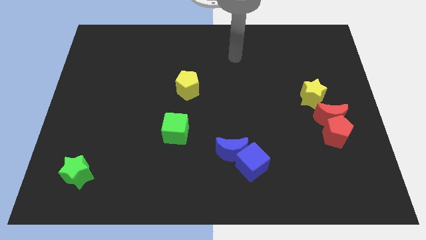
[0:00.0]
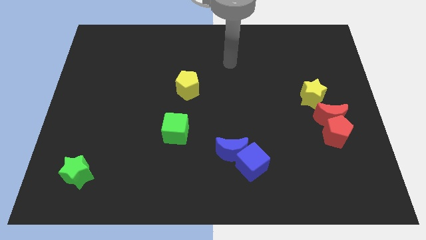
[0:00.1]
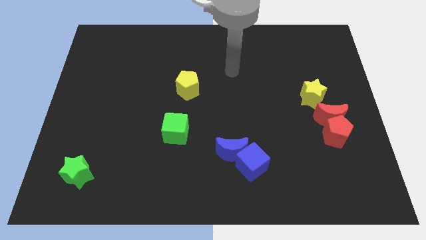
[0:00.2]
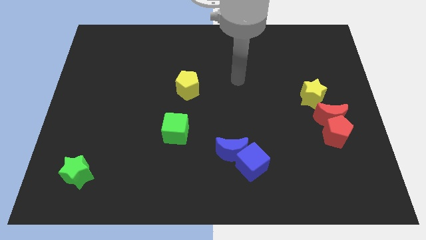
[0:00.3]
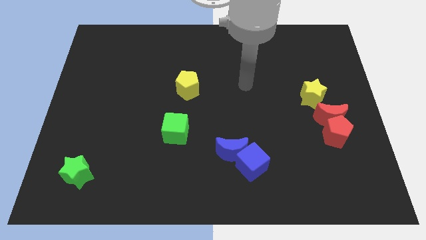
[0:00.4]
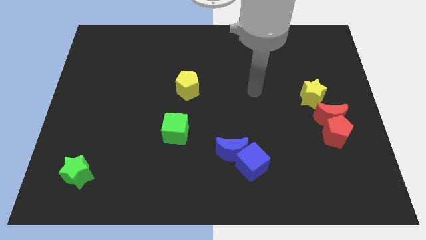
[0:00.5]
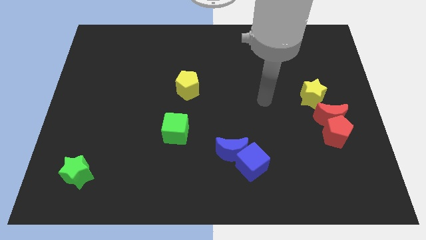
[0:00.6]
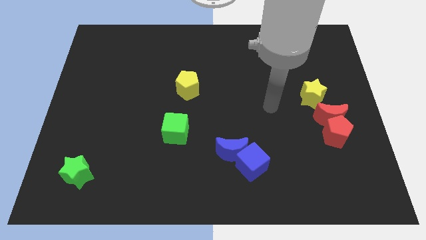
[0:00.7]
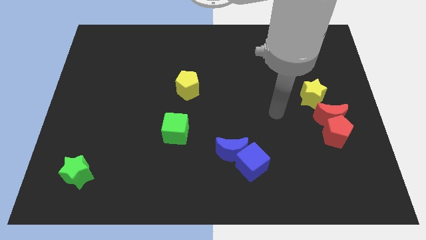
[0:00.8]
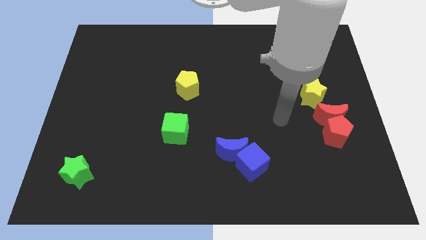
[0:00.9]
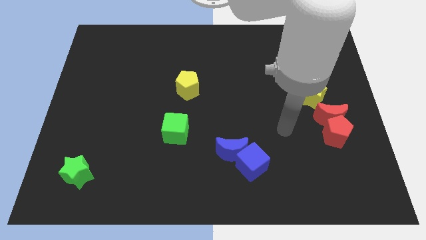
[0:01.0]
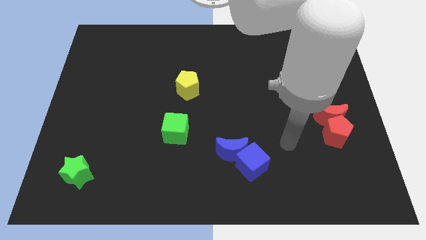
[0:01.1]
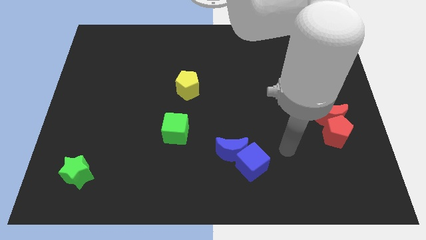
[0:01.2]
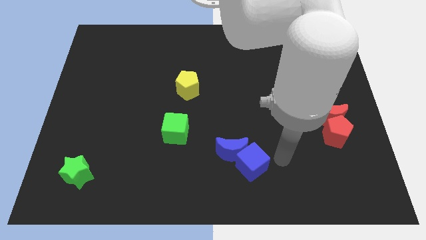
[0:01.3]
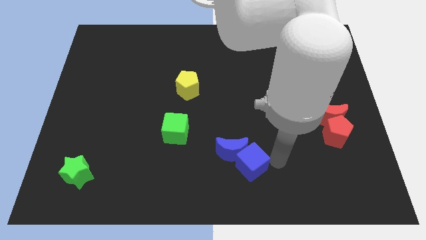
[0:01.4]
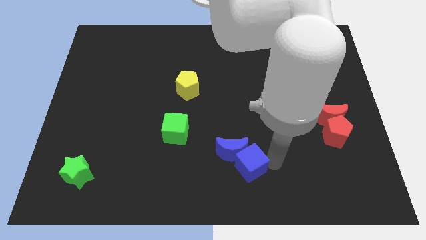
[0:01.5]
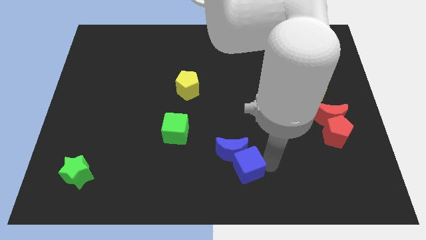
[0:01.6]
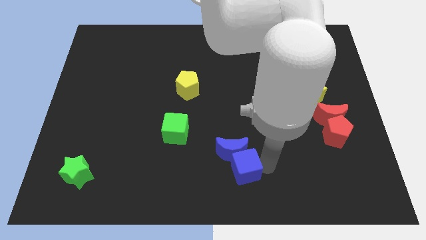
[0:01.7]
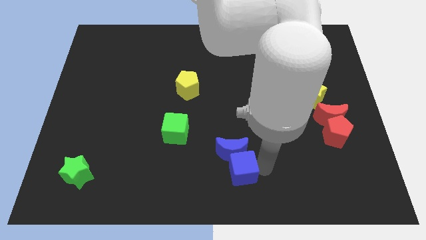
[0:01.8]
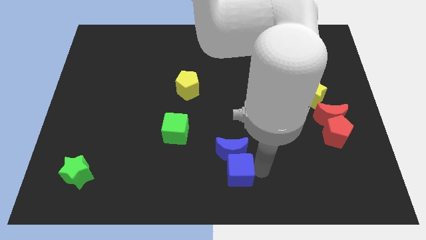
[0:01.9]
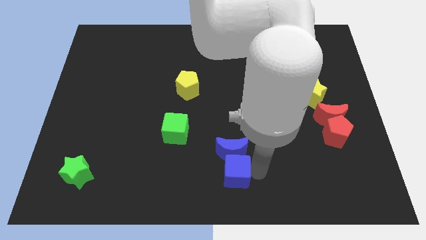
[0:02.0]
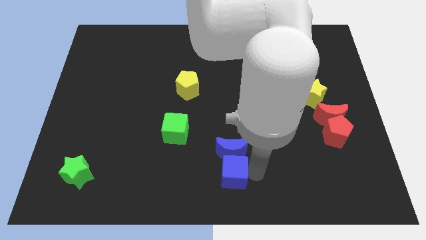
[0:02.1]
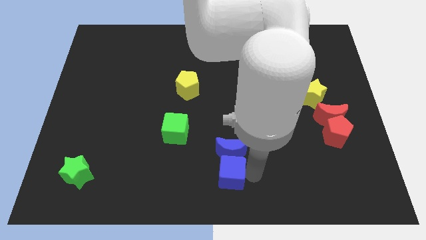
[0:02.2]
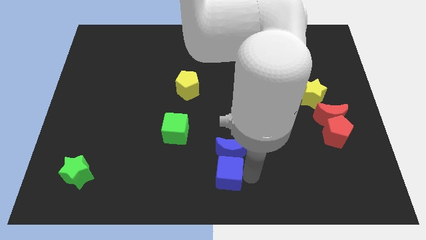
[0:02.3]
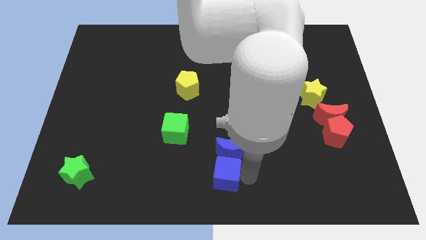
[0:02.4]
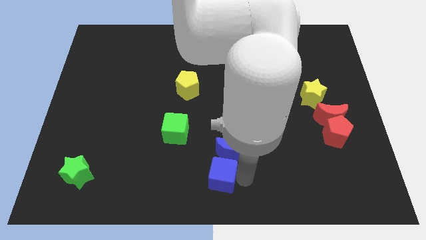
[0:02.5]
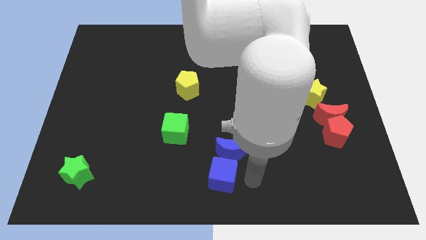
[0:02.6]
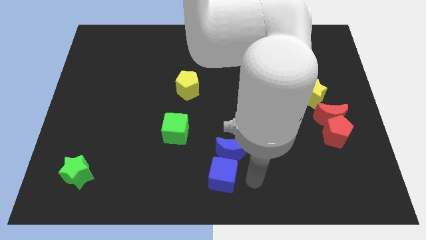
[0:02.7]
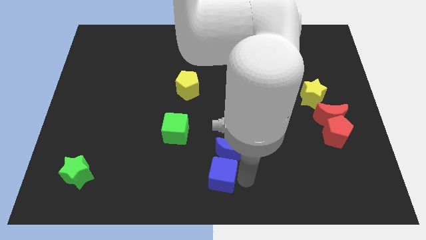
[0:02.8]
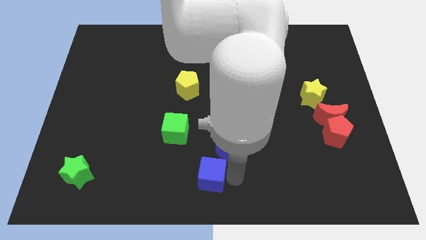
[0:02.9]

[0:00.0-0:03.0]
move the blue cube slightly to the left

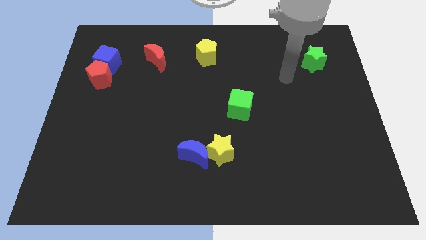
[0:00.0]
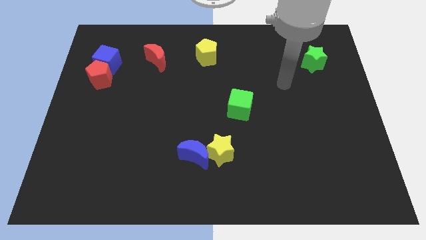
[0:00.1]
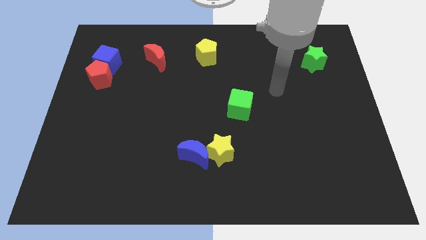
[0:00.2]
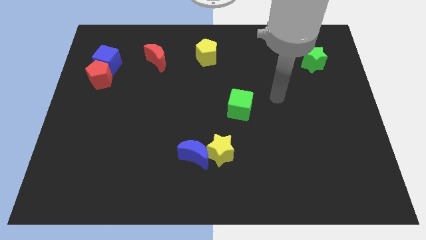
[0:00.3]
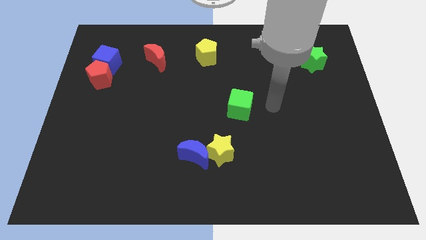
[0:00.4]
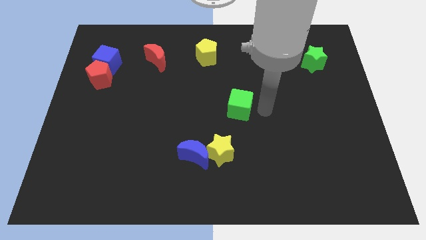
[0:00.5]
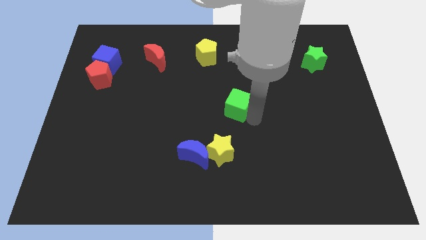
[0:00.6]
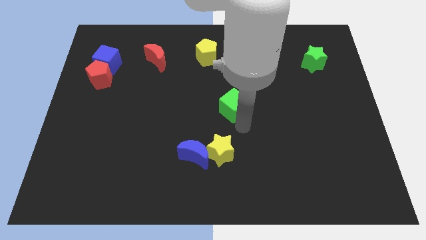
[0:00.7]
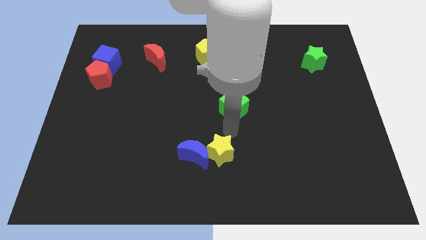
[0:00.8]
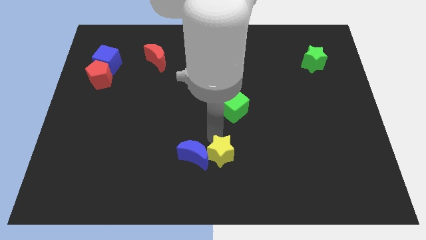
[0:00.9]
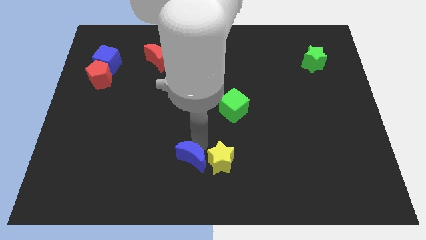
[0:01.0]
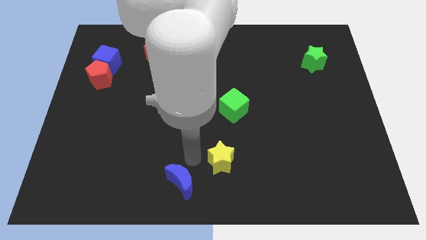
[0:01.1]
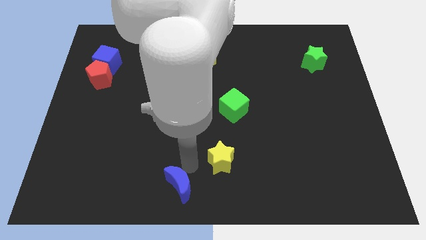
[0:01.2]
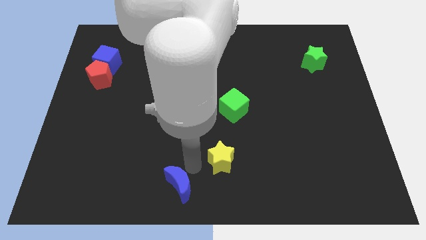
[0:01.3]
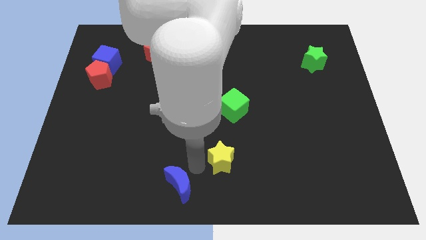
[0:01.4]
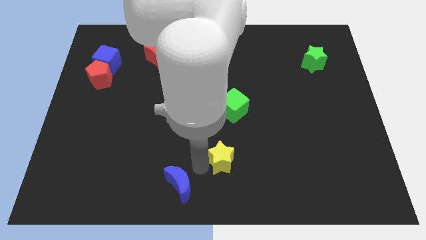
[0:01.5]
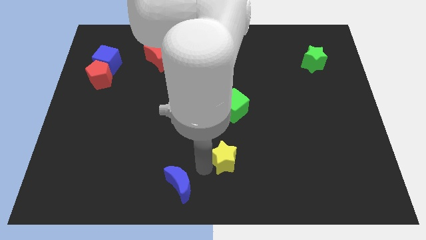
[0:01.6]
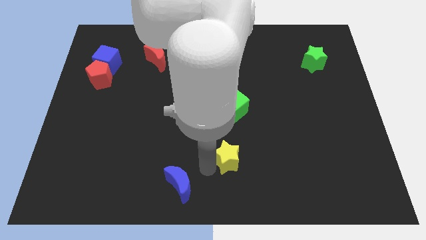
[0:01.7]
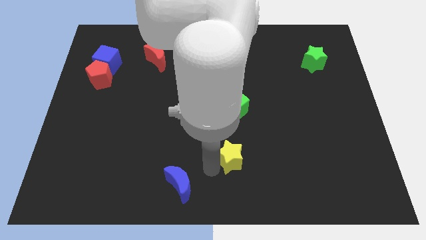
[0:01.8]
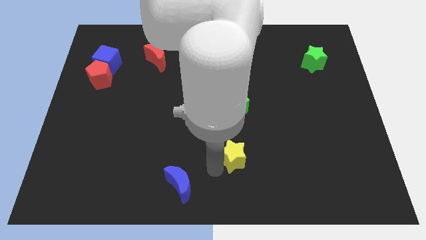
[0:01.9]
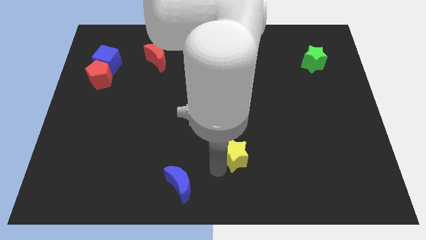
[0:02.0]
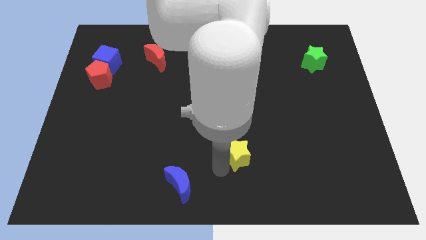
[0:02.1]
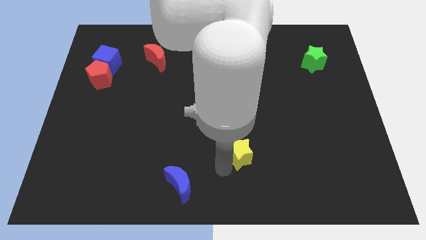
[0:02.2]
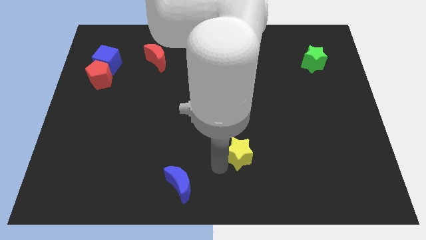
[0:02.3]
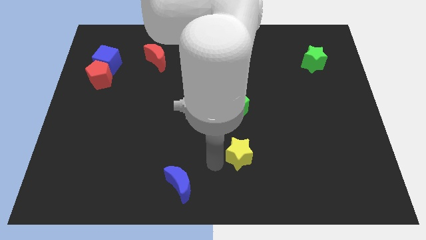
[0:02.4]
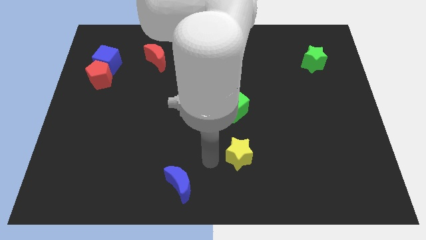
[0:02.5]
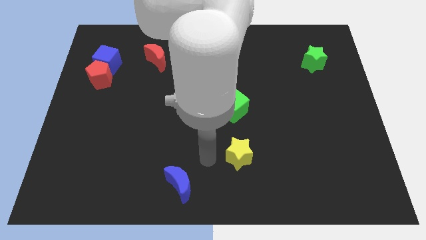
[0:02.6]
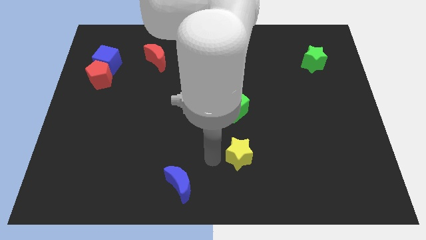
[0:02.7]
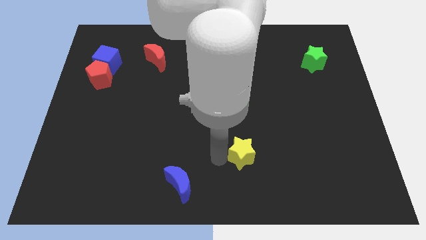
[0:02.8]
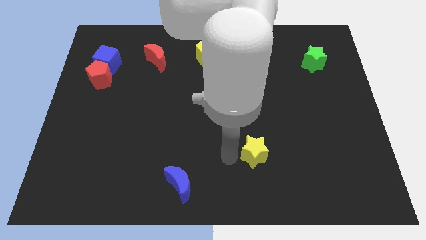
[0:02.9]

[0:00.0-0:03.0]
slightly move the yellow star to the right

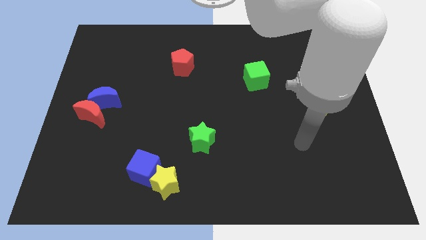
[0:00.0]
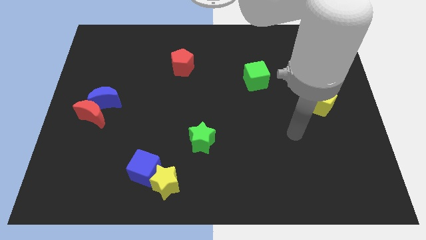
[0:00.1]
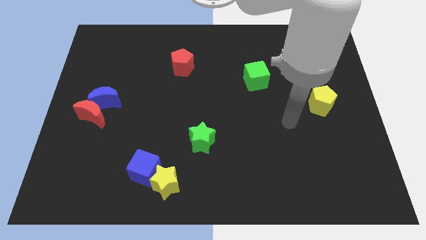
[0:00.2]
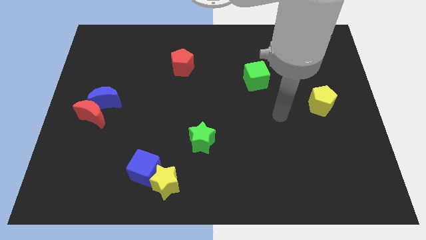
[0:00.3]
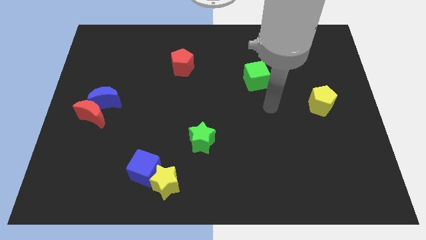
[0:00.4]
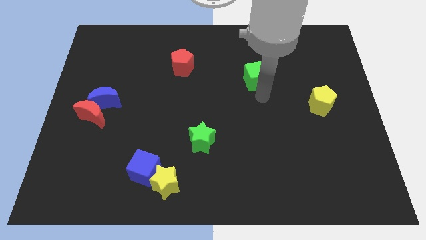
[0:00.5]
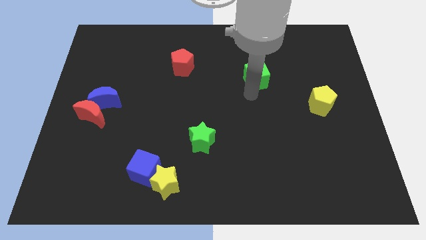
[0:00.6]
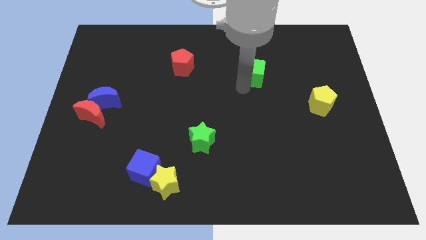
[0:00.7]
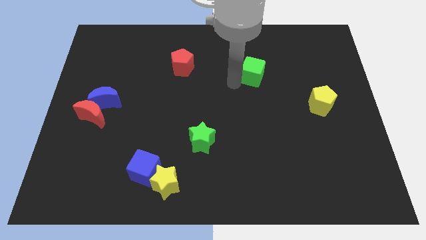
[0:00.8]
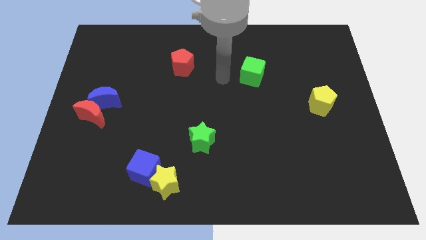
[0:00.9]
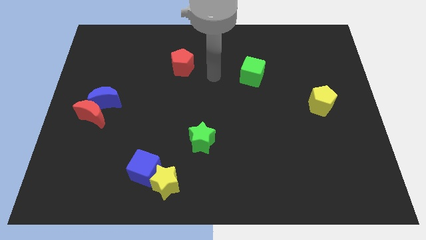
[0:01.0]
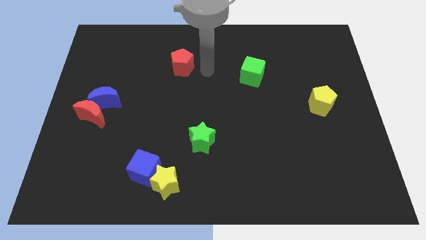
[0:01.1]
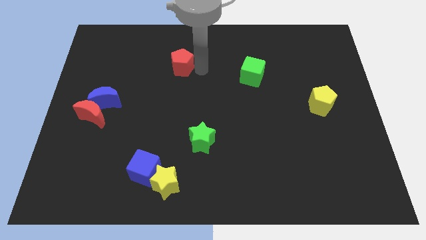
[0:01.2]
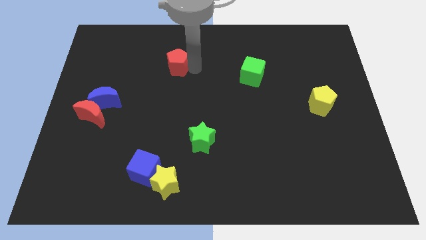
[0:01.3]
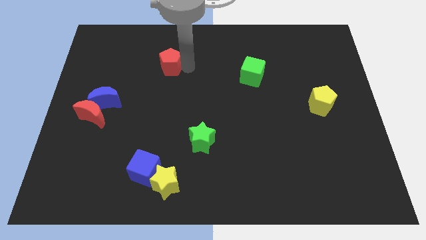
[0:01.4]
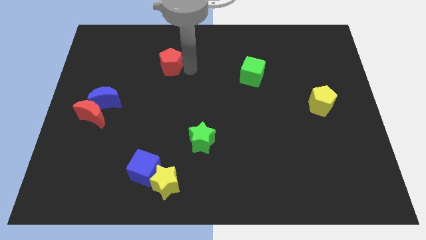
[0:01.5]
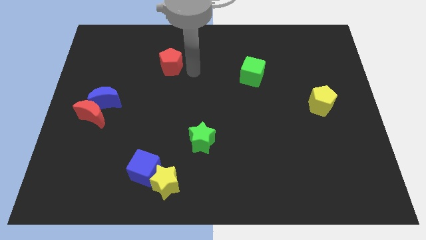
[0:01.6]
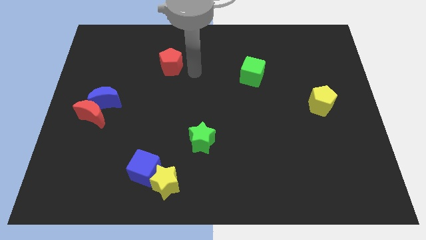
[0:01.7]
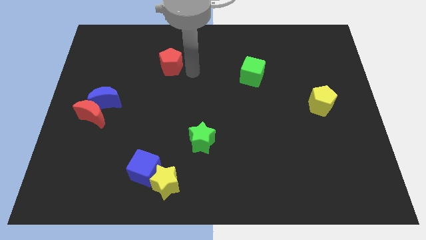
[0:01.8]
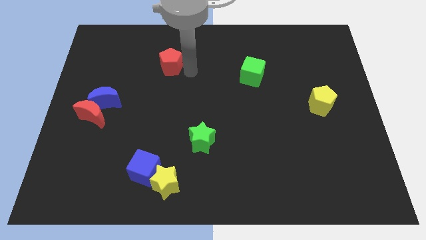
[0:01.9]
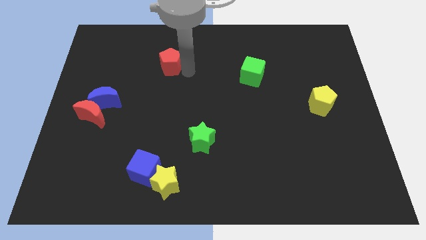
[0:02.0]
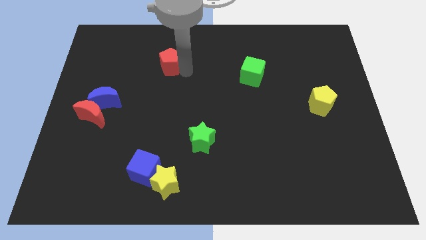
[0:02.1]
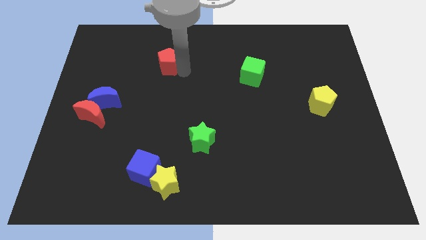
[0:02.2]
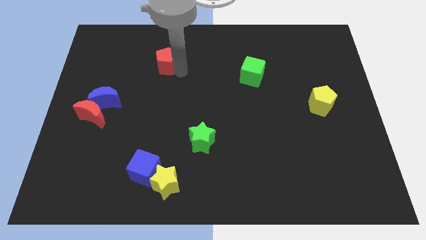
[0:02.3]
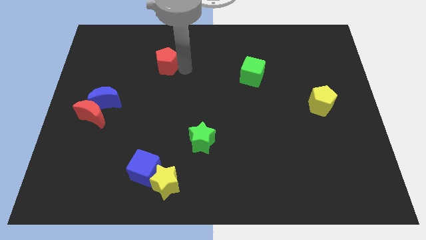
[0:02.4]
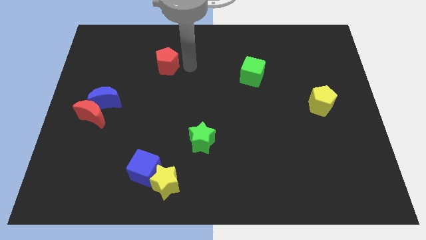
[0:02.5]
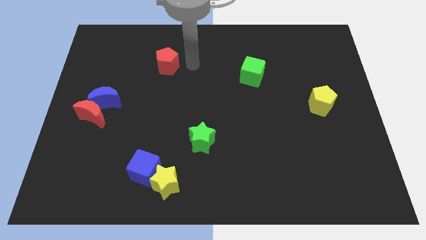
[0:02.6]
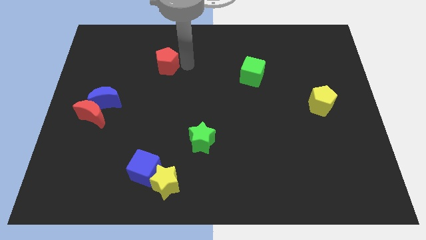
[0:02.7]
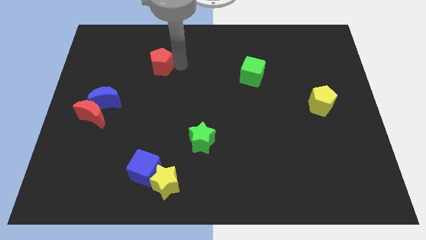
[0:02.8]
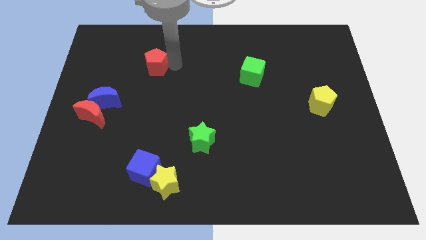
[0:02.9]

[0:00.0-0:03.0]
slightly slide the red pentagon left
